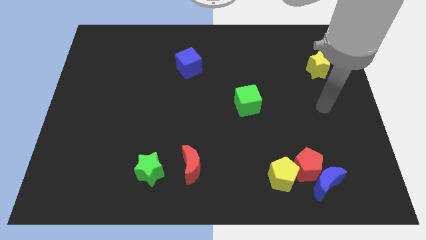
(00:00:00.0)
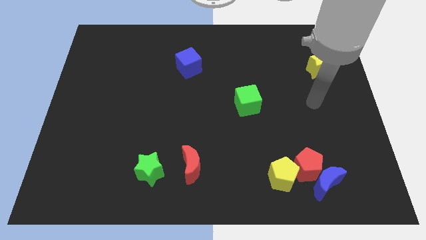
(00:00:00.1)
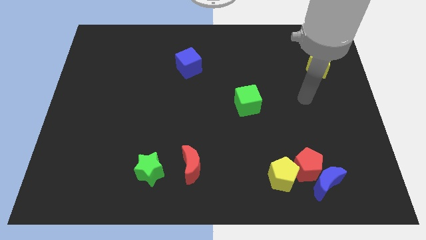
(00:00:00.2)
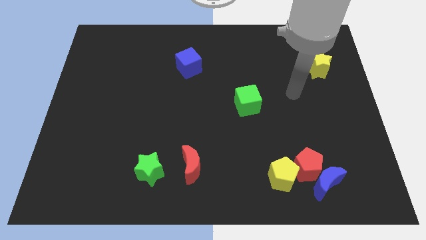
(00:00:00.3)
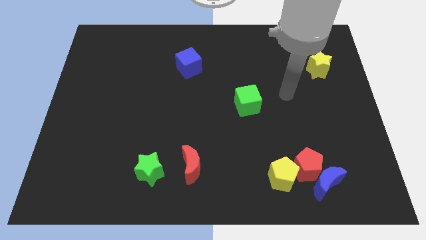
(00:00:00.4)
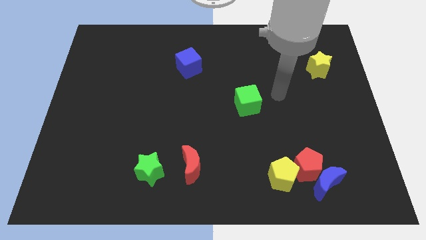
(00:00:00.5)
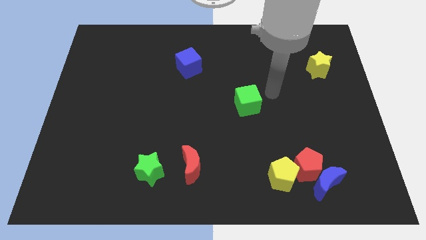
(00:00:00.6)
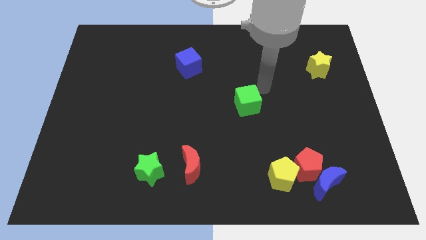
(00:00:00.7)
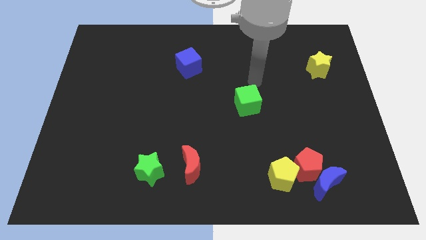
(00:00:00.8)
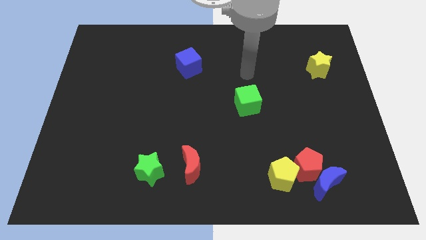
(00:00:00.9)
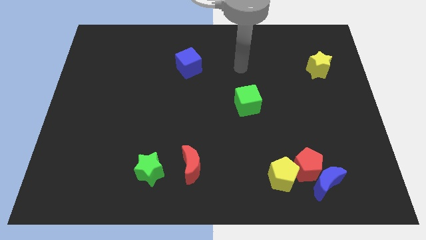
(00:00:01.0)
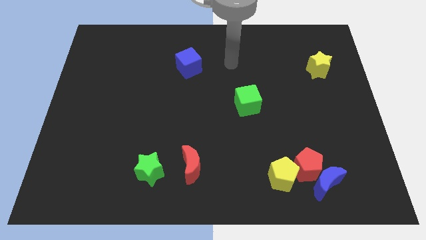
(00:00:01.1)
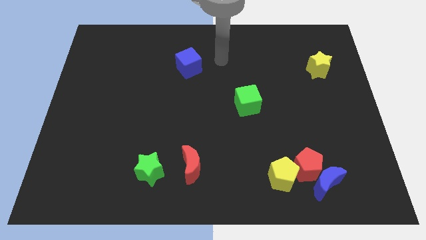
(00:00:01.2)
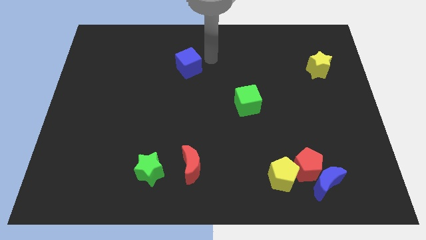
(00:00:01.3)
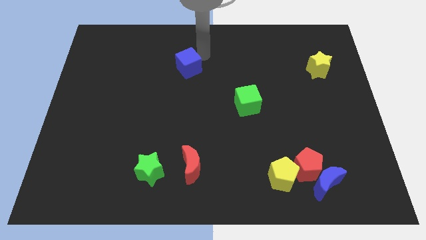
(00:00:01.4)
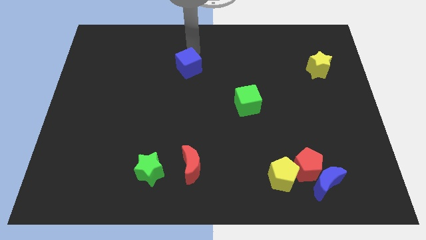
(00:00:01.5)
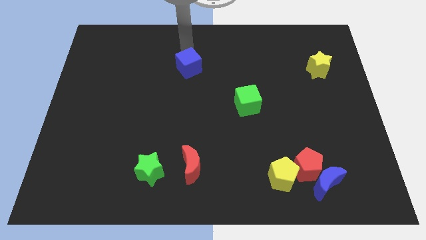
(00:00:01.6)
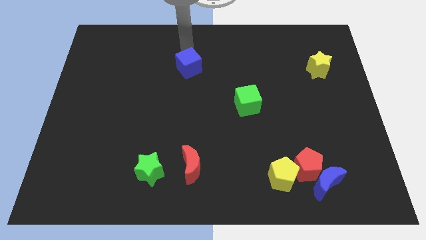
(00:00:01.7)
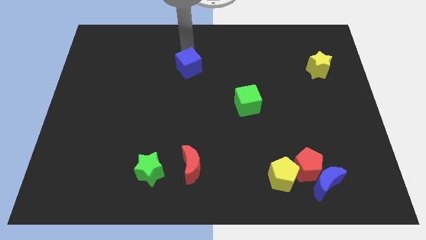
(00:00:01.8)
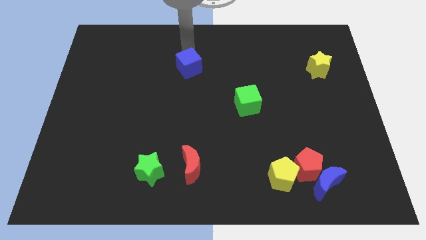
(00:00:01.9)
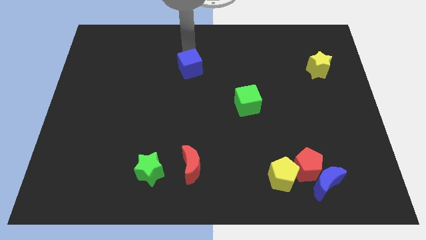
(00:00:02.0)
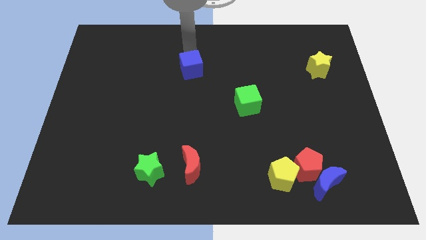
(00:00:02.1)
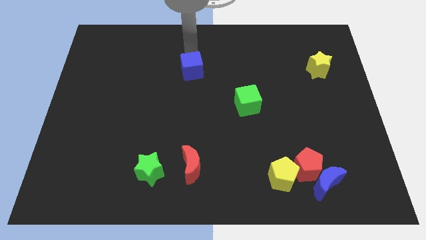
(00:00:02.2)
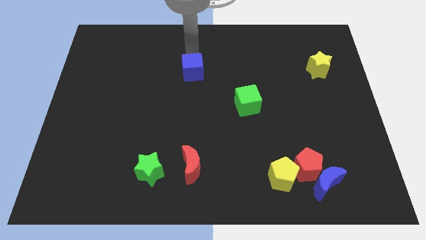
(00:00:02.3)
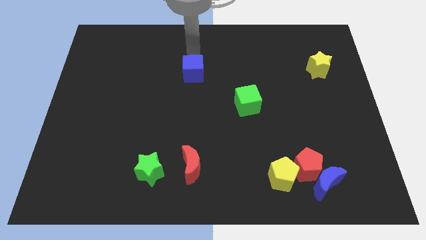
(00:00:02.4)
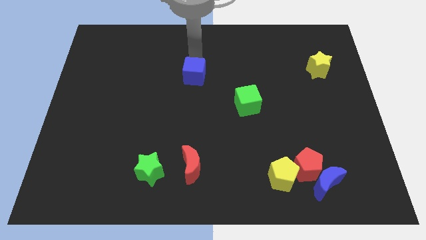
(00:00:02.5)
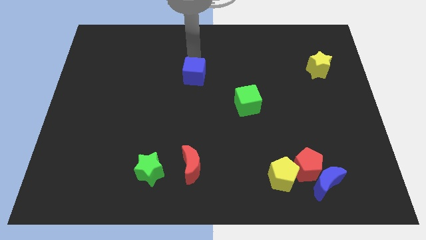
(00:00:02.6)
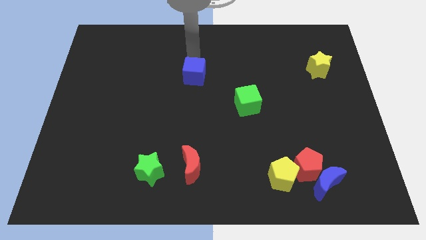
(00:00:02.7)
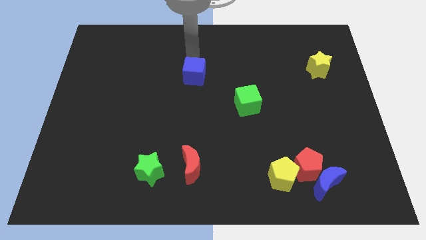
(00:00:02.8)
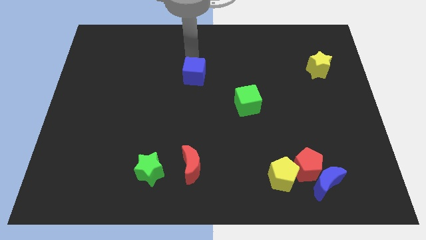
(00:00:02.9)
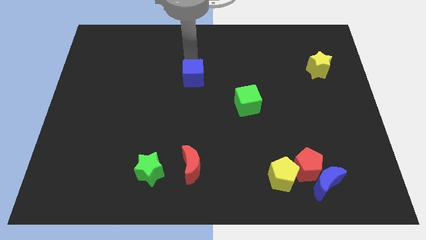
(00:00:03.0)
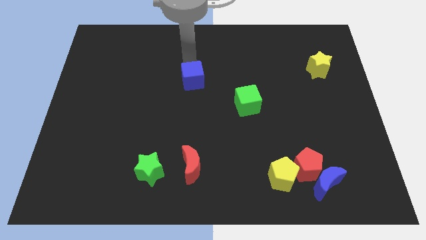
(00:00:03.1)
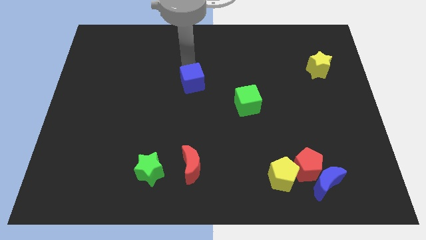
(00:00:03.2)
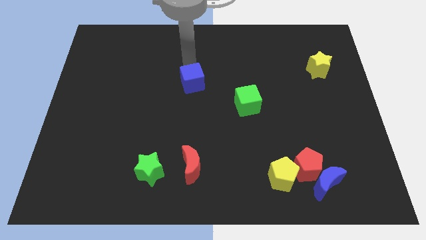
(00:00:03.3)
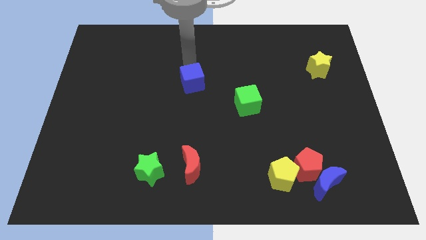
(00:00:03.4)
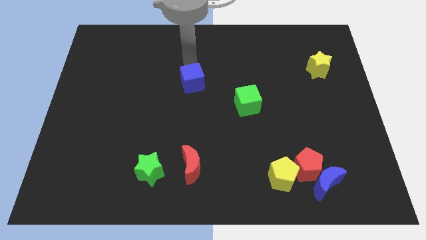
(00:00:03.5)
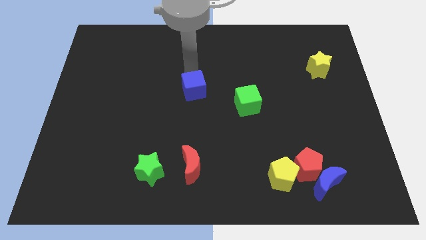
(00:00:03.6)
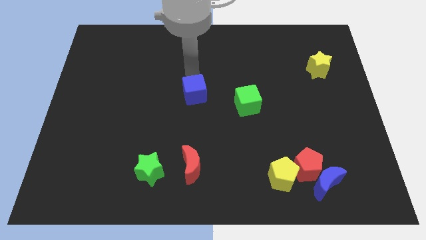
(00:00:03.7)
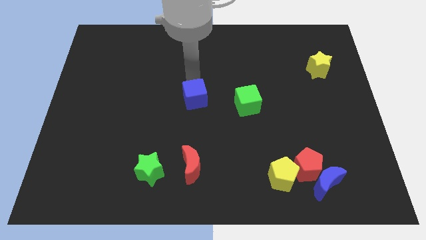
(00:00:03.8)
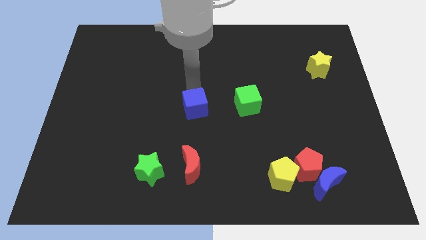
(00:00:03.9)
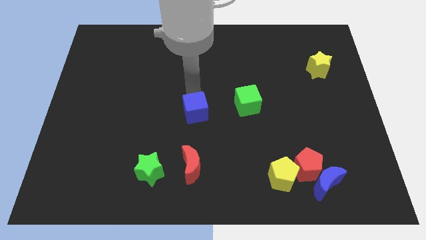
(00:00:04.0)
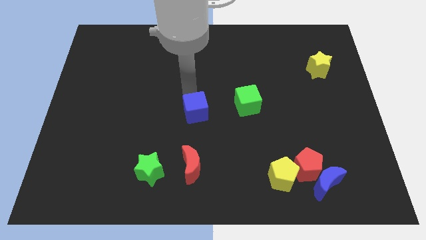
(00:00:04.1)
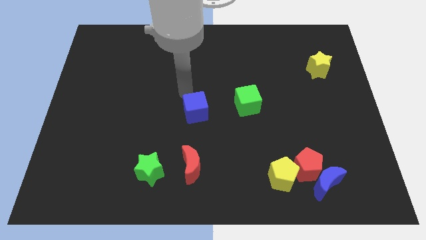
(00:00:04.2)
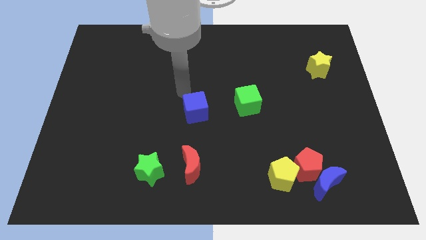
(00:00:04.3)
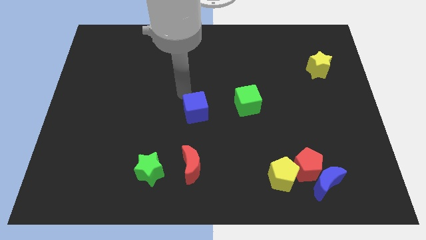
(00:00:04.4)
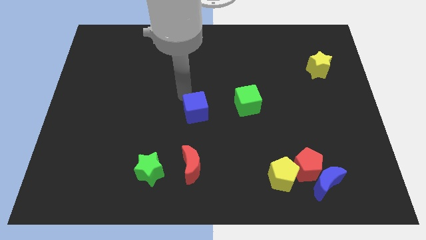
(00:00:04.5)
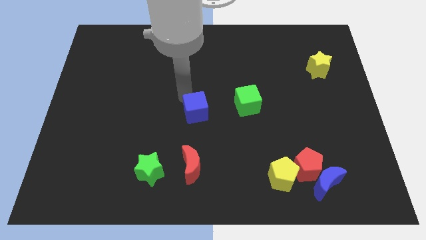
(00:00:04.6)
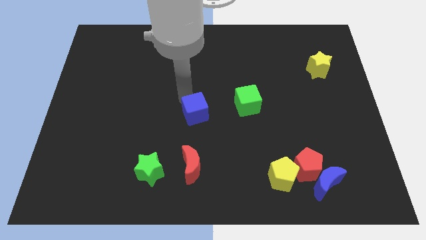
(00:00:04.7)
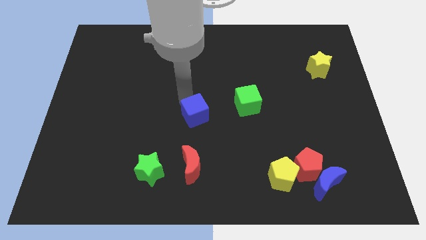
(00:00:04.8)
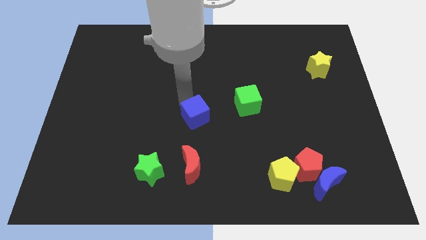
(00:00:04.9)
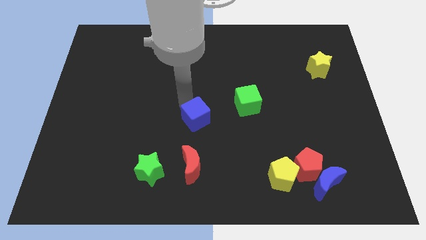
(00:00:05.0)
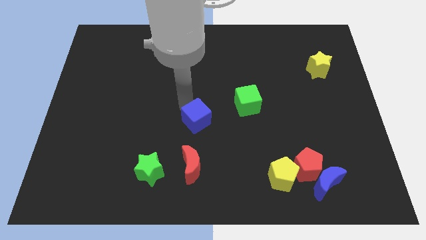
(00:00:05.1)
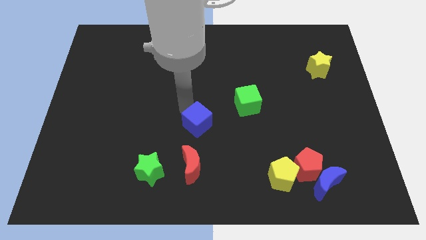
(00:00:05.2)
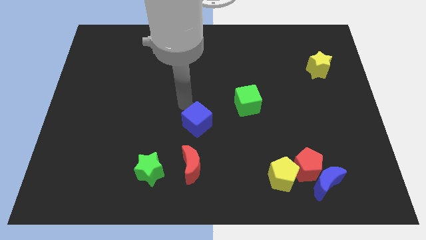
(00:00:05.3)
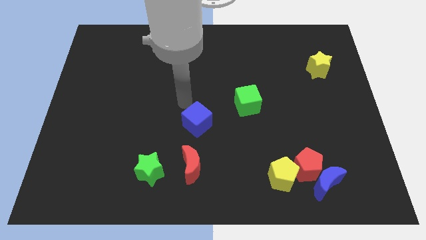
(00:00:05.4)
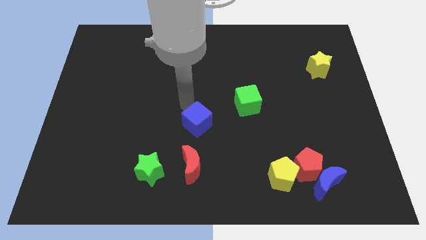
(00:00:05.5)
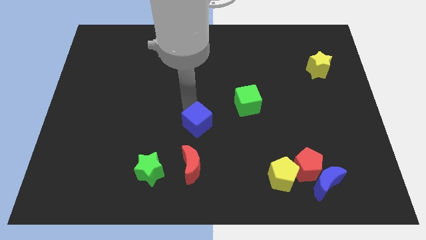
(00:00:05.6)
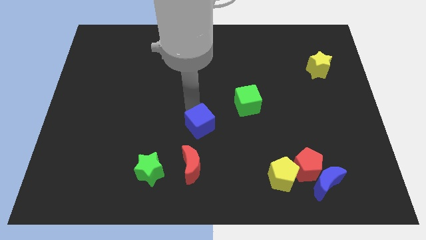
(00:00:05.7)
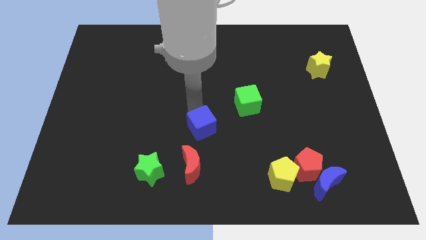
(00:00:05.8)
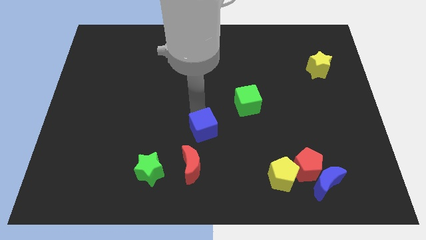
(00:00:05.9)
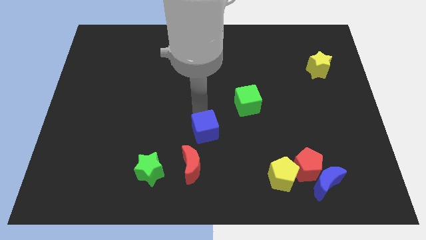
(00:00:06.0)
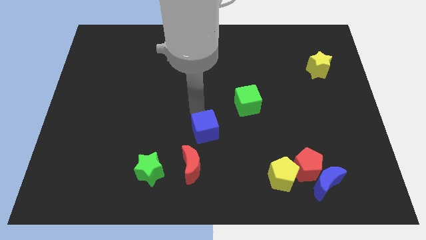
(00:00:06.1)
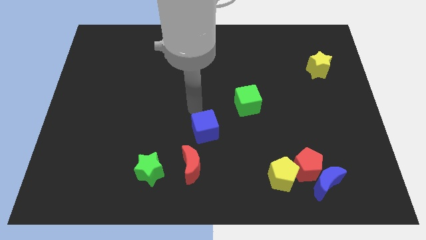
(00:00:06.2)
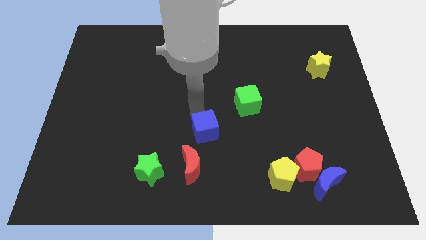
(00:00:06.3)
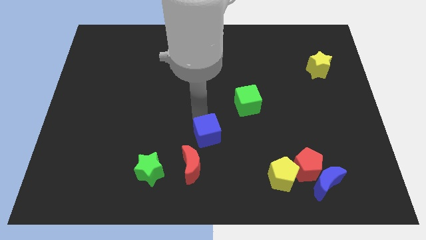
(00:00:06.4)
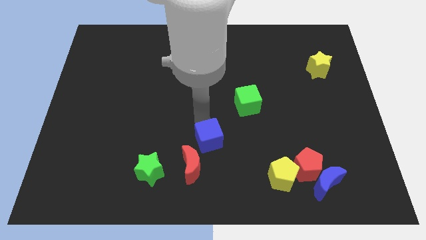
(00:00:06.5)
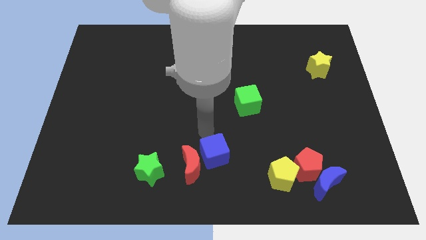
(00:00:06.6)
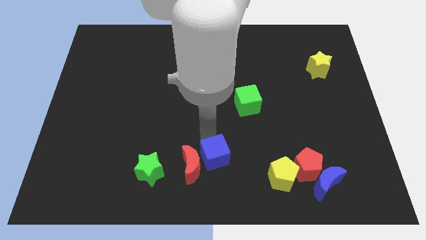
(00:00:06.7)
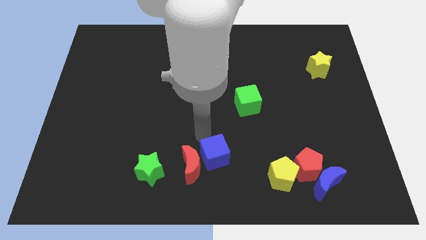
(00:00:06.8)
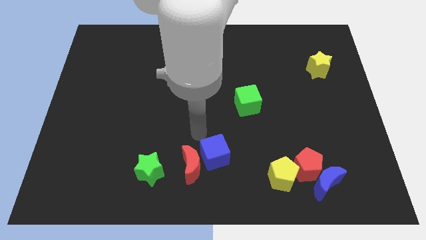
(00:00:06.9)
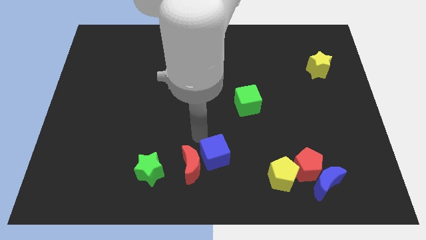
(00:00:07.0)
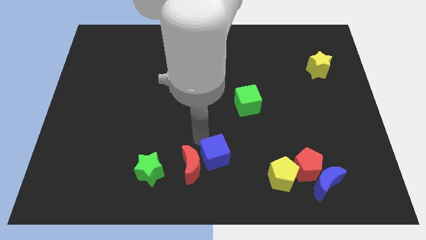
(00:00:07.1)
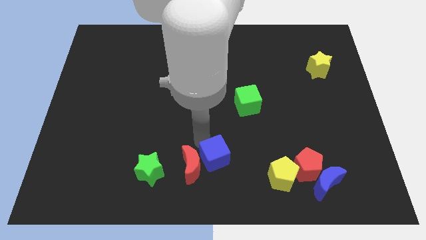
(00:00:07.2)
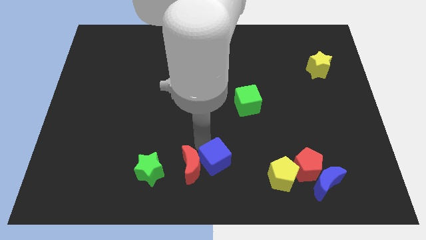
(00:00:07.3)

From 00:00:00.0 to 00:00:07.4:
push the blue cube to the left side of the yellow pentagon
